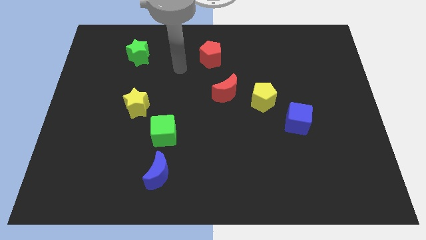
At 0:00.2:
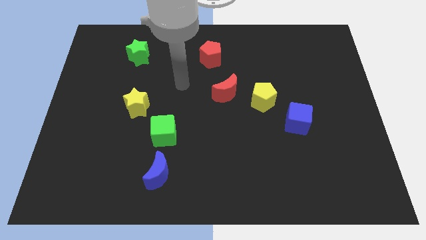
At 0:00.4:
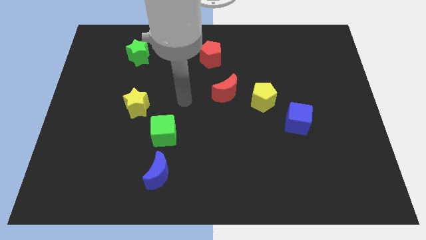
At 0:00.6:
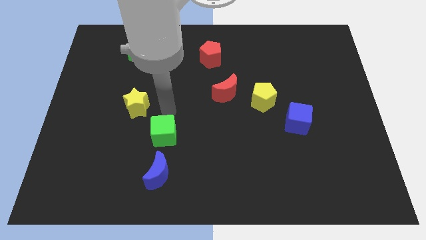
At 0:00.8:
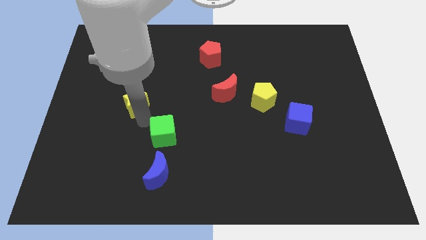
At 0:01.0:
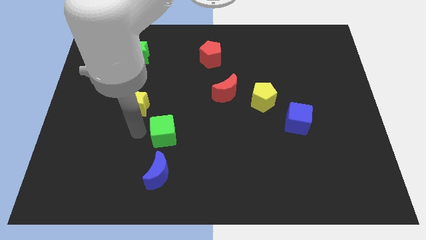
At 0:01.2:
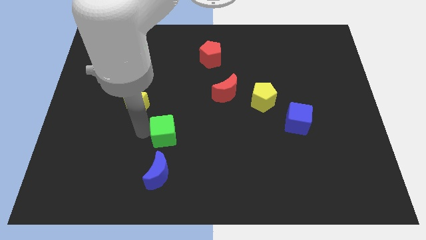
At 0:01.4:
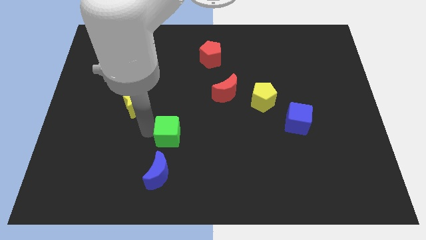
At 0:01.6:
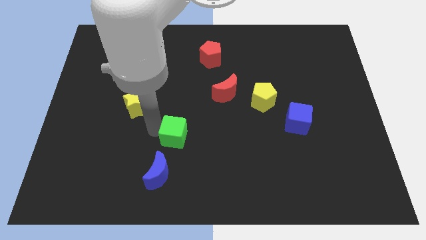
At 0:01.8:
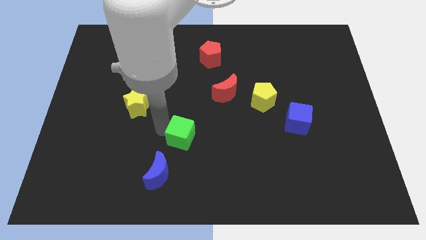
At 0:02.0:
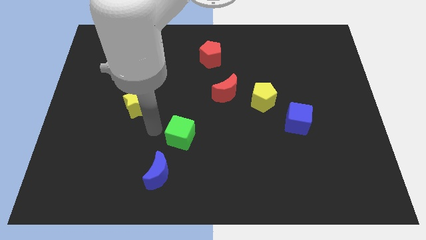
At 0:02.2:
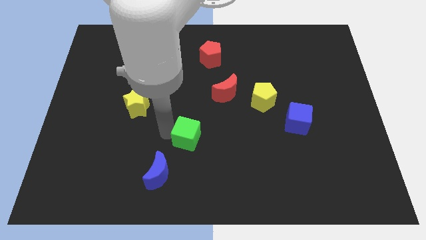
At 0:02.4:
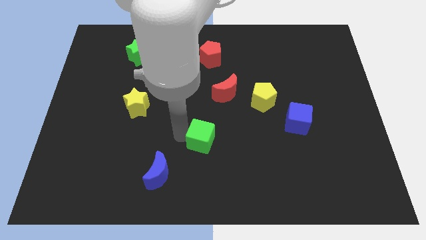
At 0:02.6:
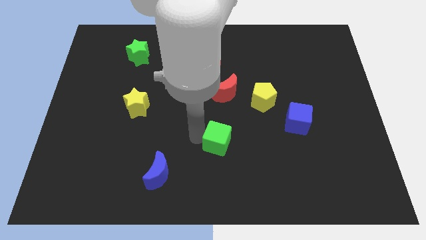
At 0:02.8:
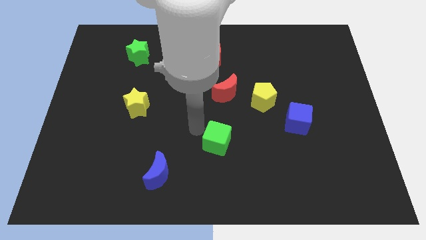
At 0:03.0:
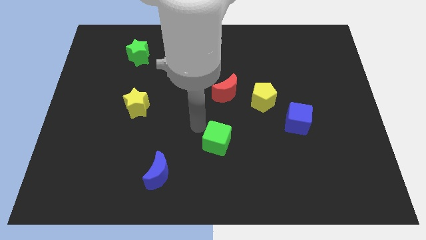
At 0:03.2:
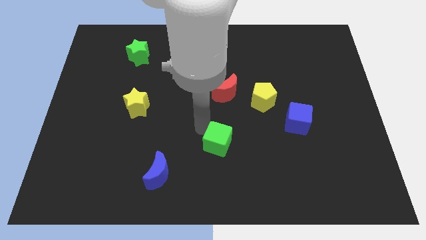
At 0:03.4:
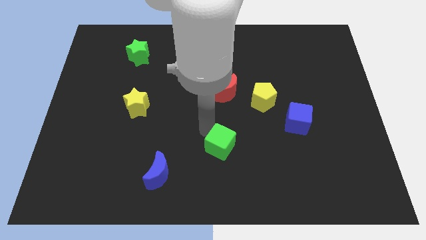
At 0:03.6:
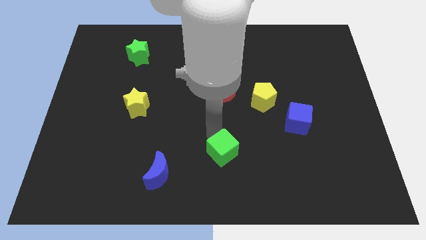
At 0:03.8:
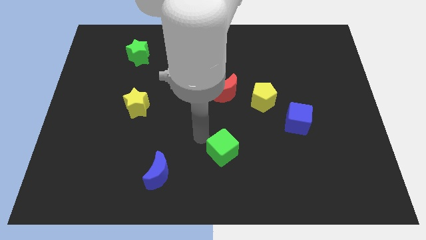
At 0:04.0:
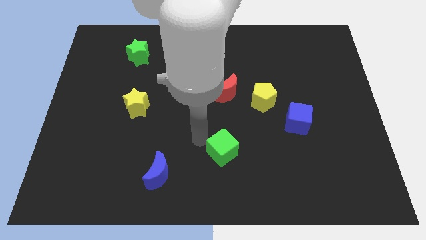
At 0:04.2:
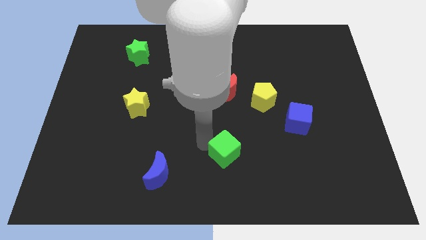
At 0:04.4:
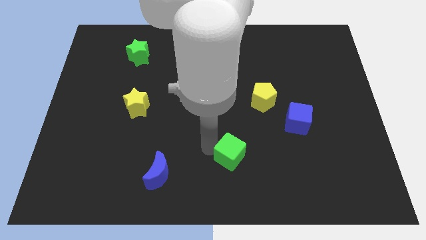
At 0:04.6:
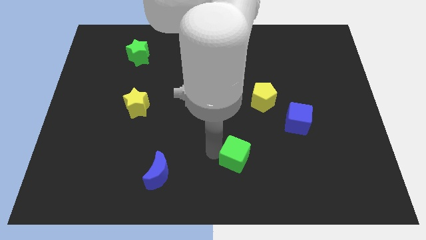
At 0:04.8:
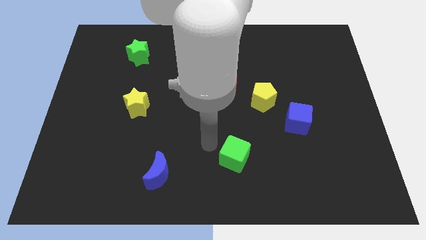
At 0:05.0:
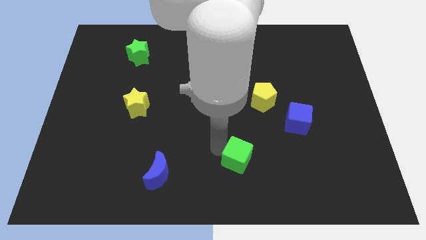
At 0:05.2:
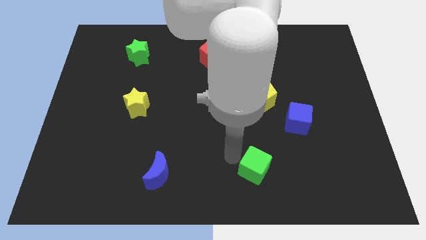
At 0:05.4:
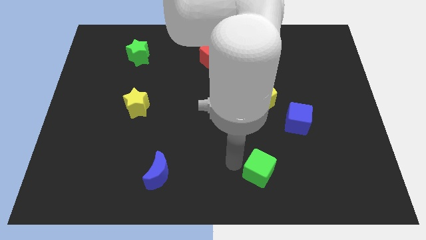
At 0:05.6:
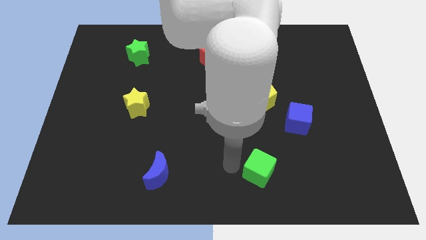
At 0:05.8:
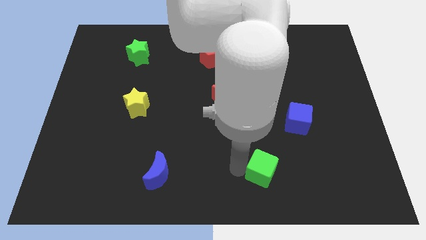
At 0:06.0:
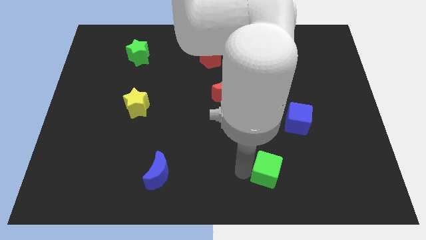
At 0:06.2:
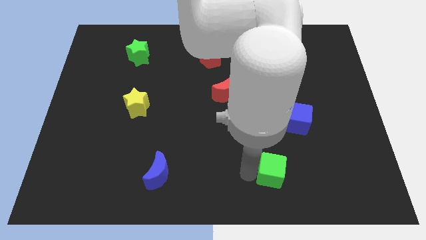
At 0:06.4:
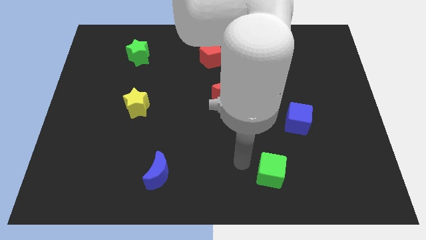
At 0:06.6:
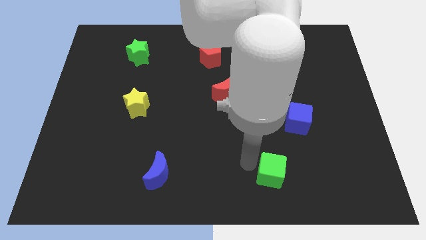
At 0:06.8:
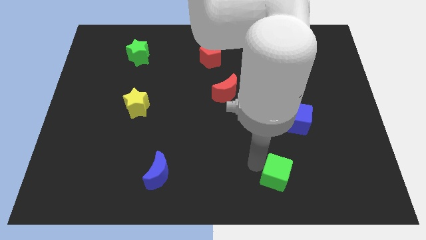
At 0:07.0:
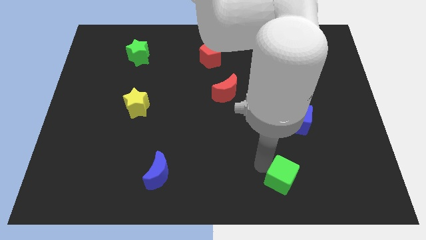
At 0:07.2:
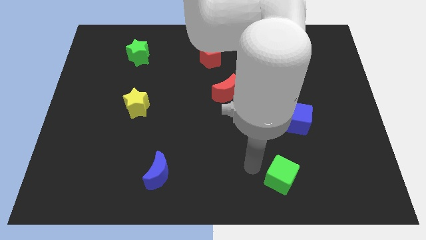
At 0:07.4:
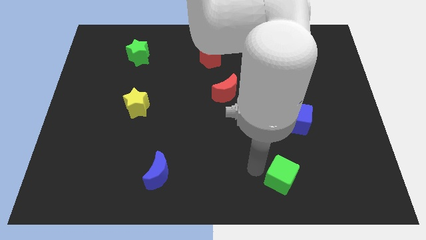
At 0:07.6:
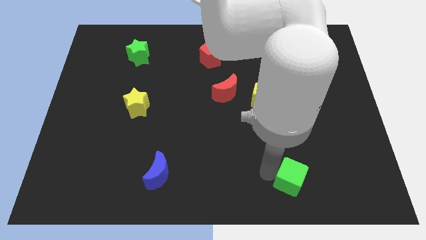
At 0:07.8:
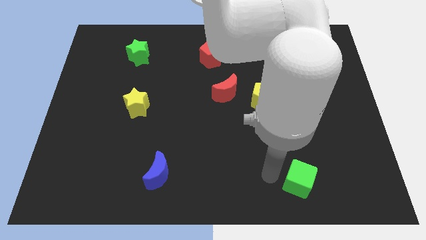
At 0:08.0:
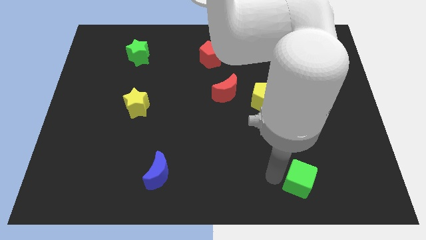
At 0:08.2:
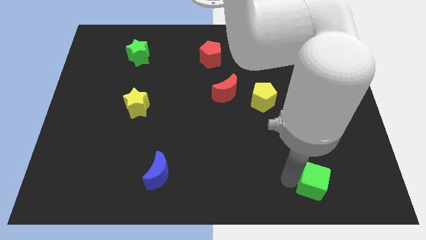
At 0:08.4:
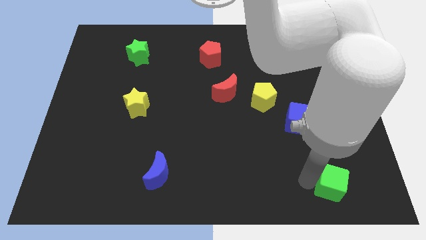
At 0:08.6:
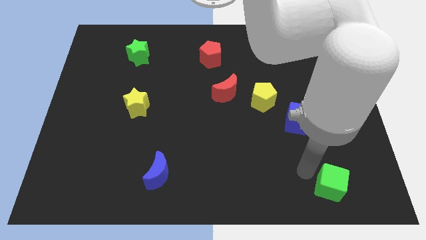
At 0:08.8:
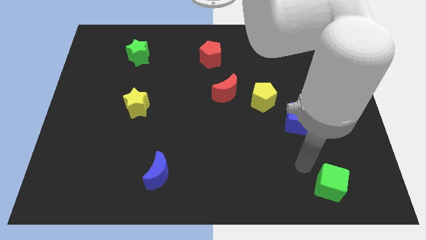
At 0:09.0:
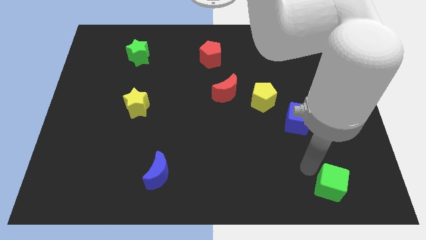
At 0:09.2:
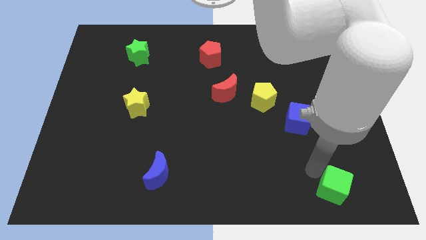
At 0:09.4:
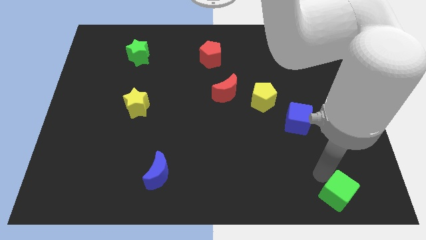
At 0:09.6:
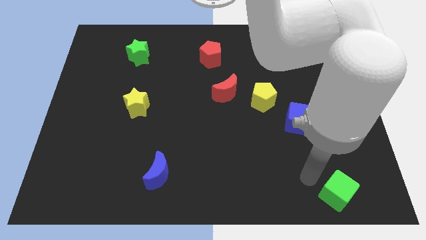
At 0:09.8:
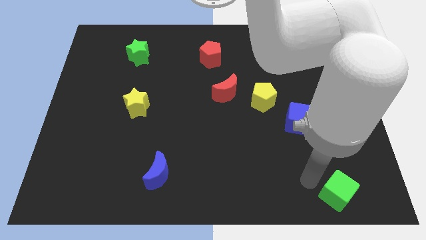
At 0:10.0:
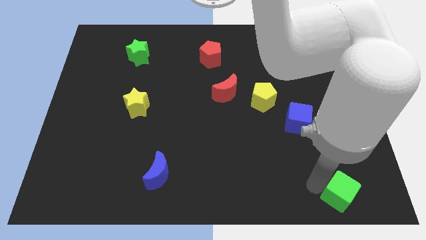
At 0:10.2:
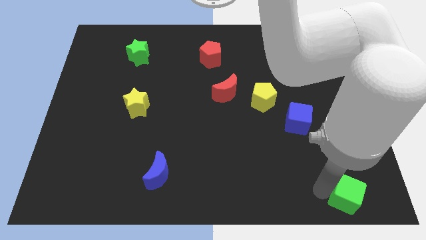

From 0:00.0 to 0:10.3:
put the green cube to the bottom right corner

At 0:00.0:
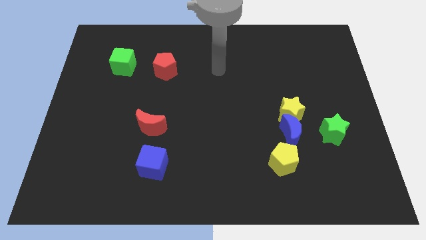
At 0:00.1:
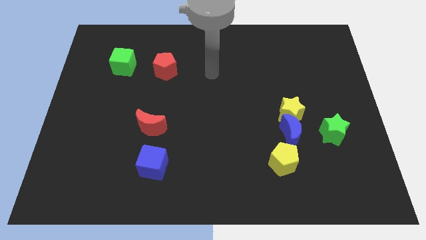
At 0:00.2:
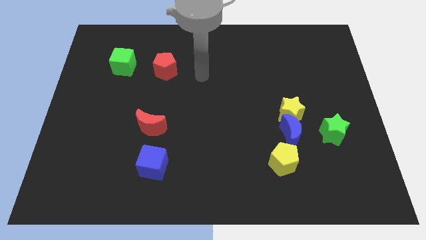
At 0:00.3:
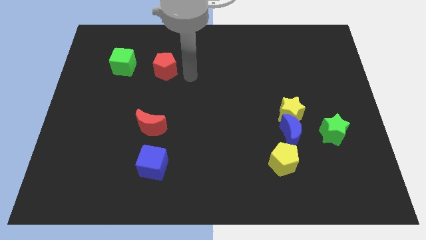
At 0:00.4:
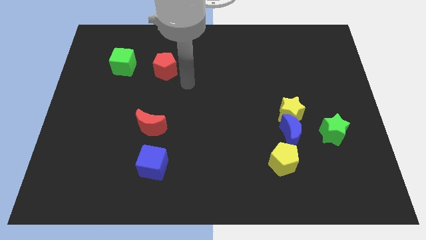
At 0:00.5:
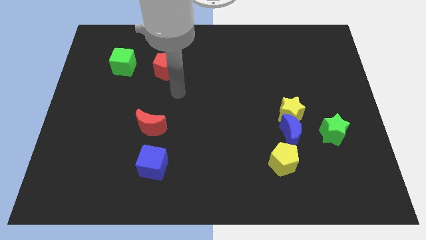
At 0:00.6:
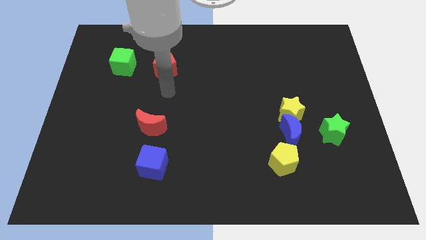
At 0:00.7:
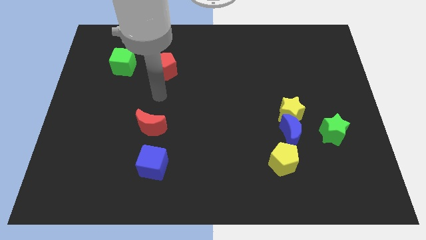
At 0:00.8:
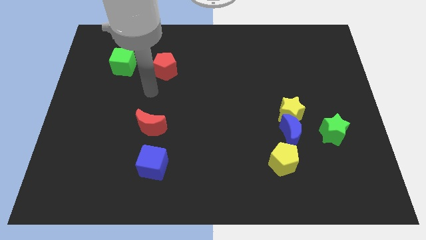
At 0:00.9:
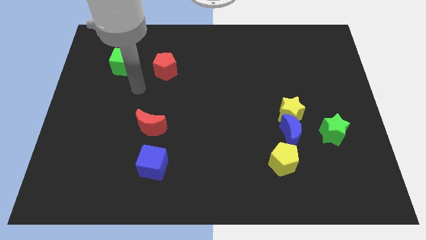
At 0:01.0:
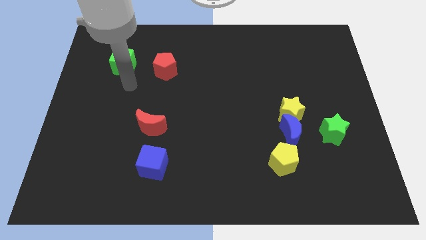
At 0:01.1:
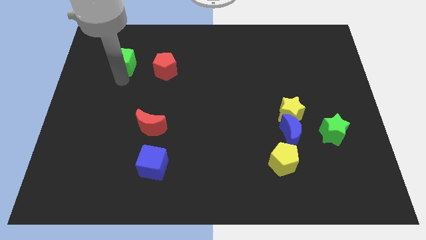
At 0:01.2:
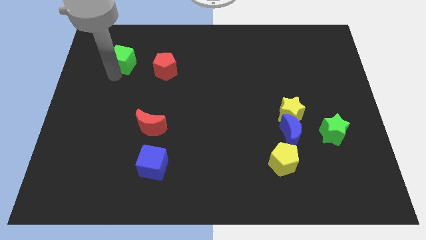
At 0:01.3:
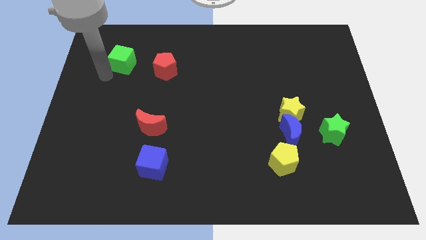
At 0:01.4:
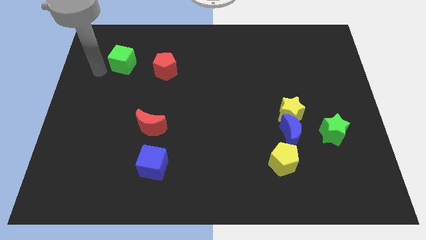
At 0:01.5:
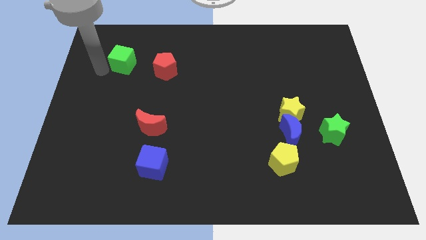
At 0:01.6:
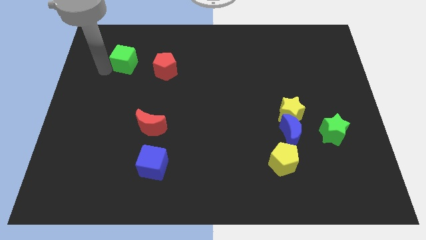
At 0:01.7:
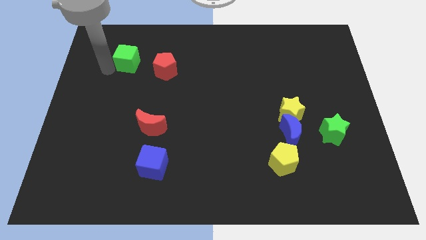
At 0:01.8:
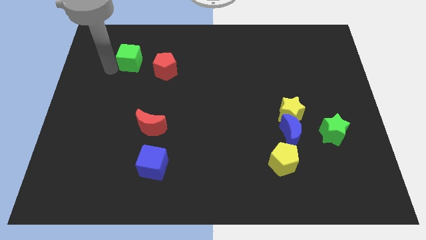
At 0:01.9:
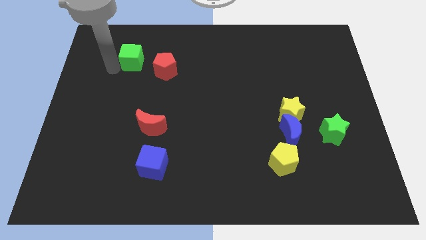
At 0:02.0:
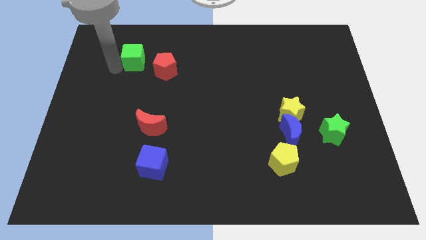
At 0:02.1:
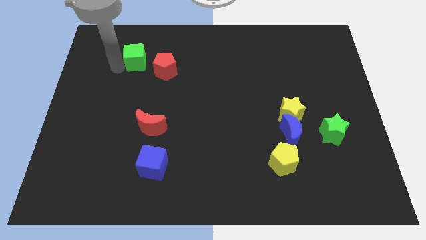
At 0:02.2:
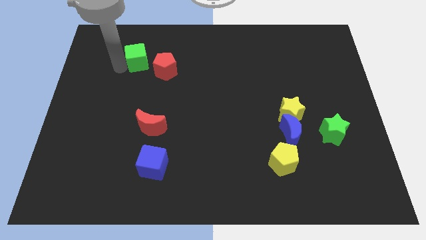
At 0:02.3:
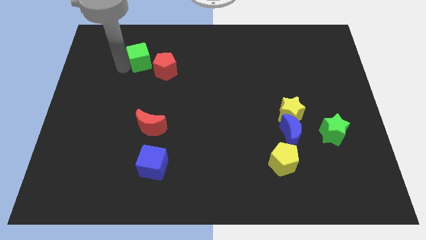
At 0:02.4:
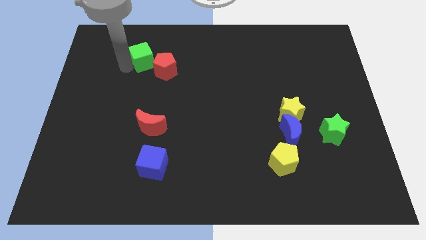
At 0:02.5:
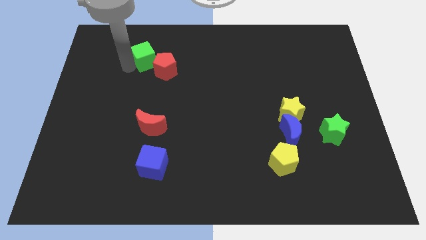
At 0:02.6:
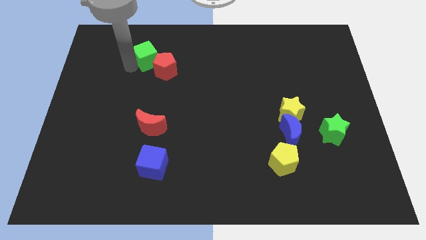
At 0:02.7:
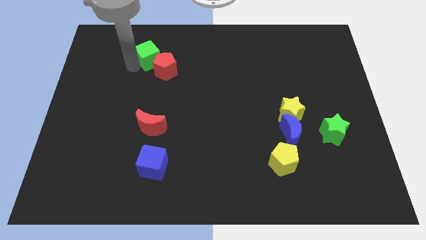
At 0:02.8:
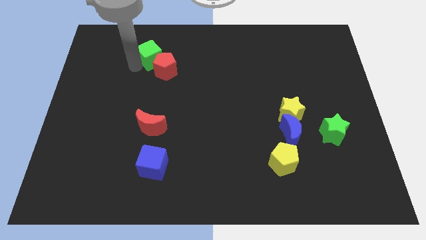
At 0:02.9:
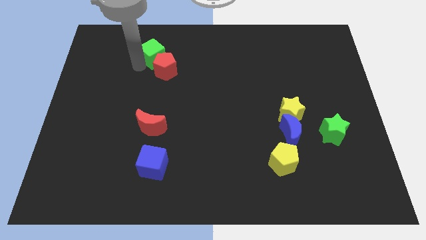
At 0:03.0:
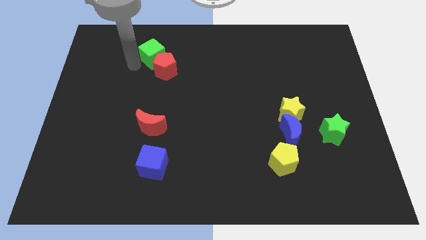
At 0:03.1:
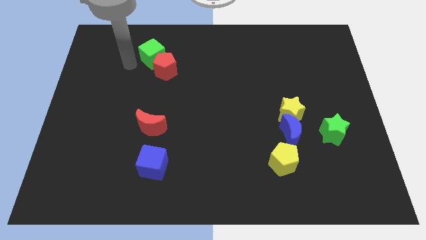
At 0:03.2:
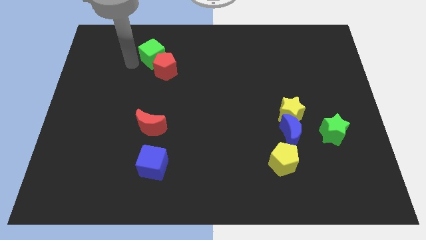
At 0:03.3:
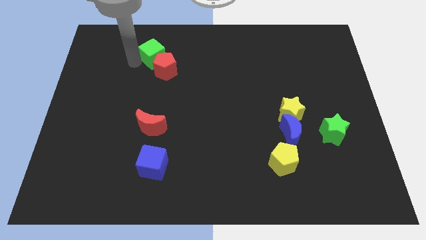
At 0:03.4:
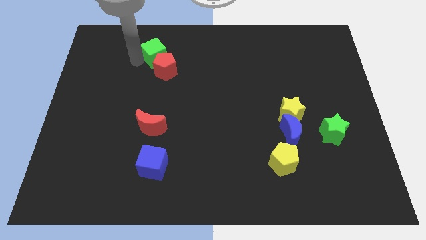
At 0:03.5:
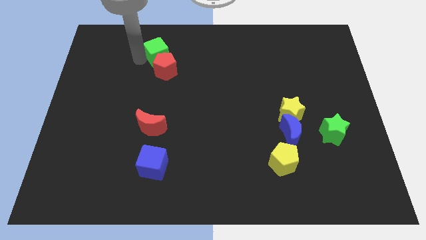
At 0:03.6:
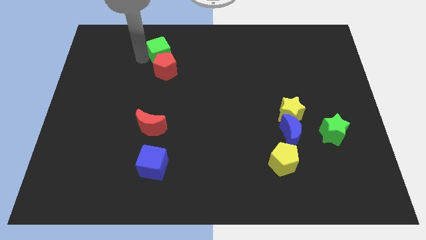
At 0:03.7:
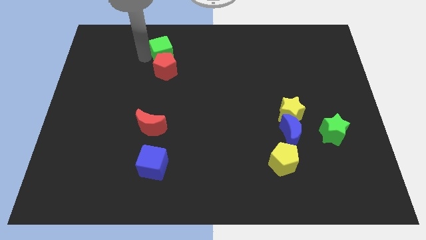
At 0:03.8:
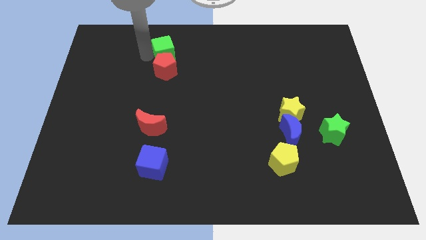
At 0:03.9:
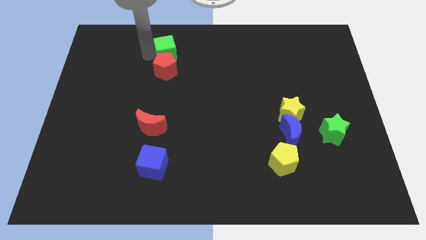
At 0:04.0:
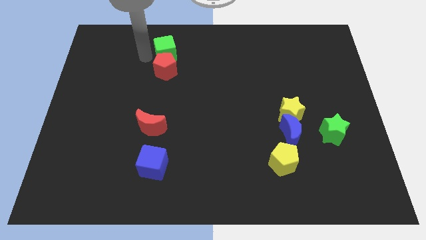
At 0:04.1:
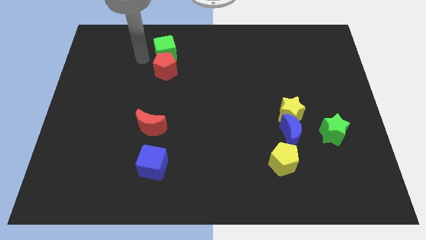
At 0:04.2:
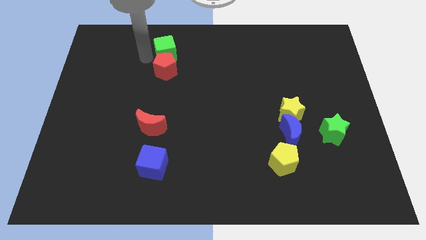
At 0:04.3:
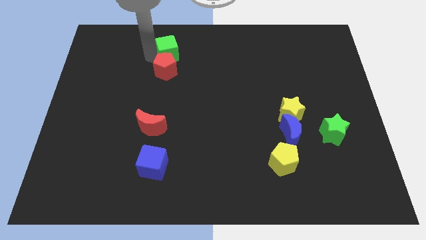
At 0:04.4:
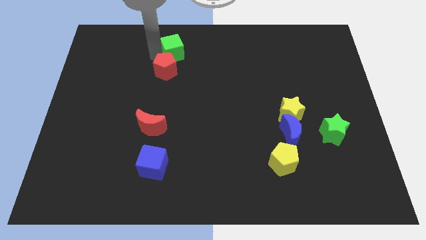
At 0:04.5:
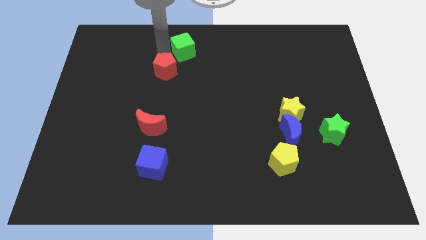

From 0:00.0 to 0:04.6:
put the green cube to the top side
